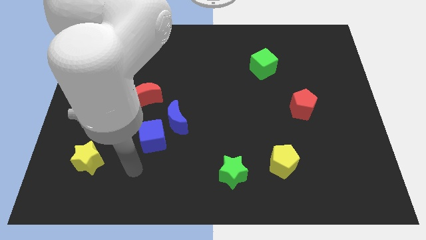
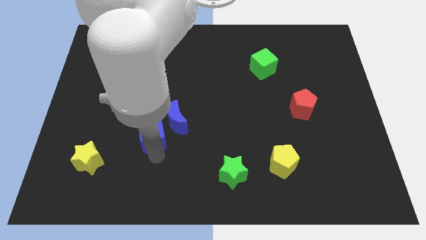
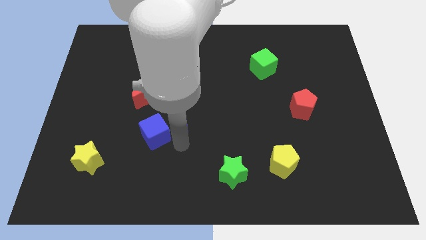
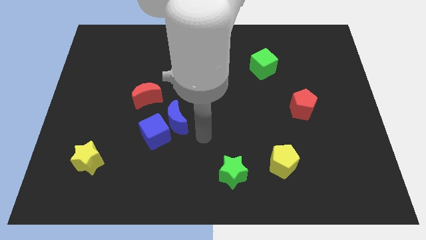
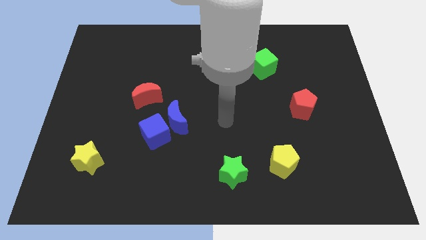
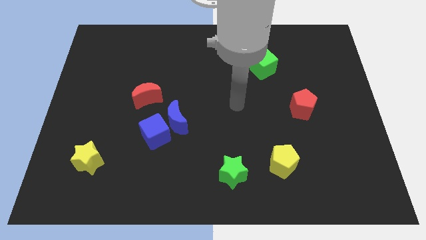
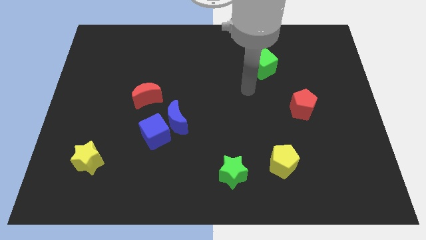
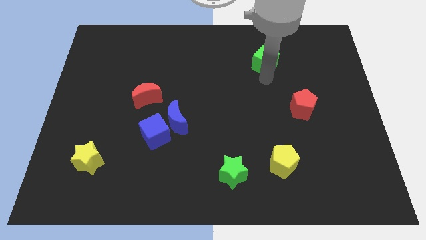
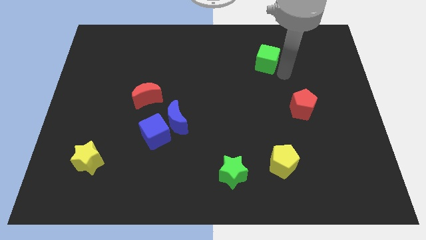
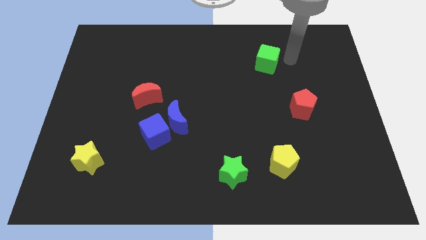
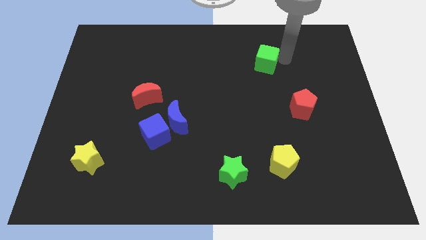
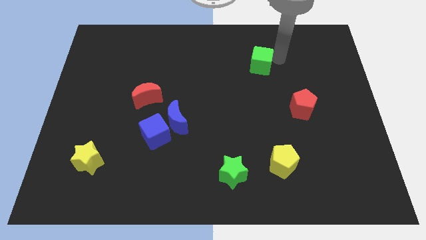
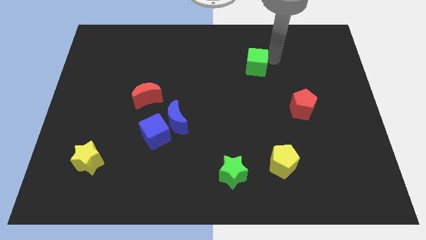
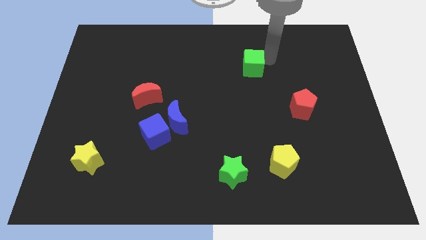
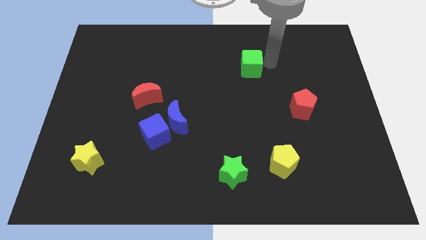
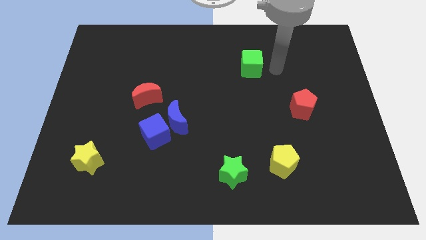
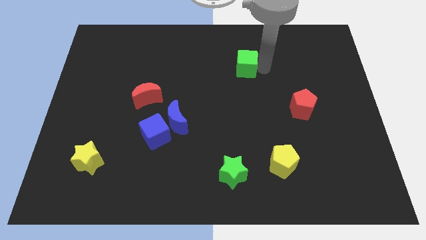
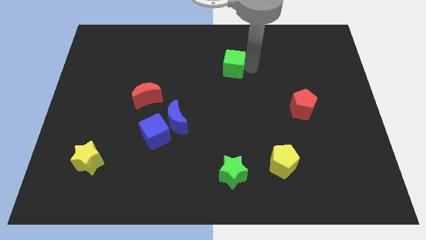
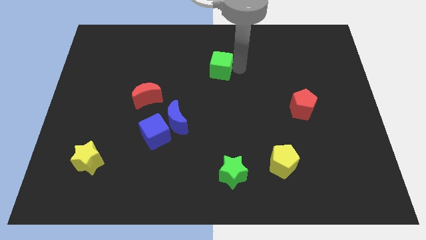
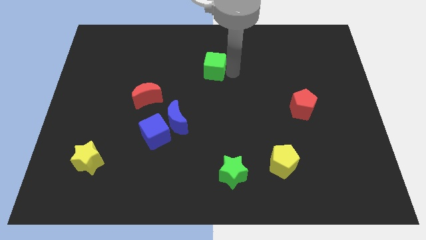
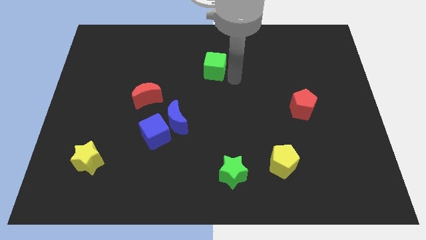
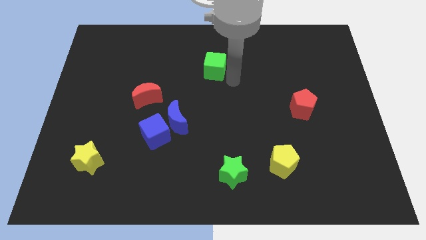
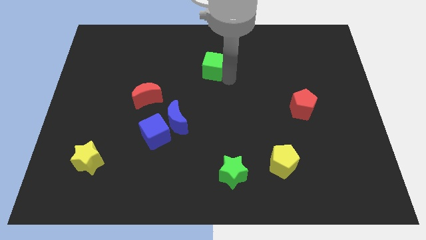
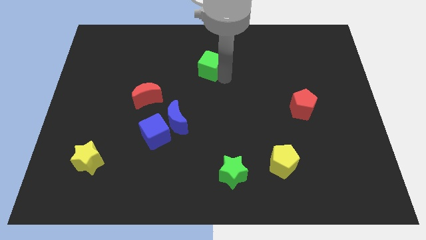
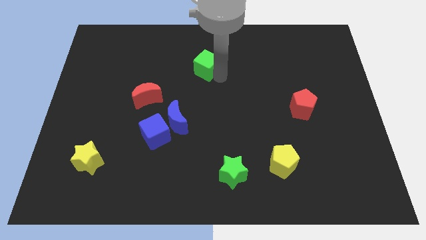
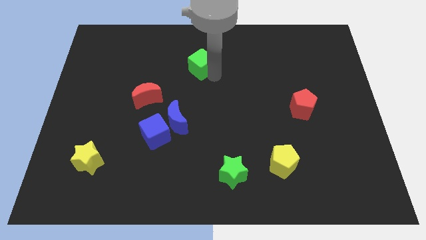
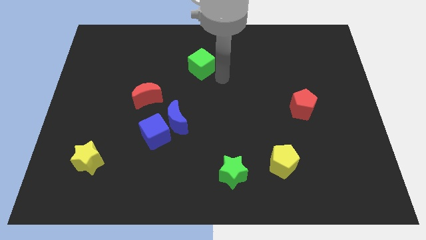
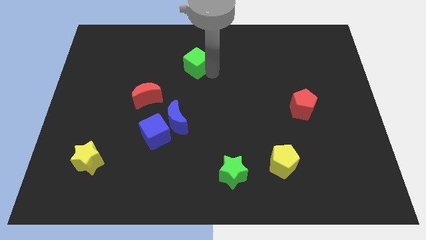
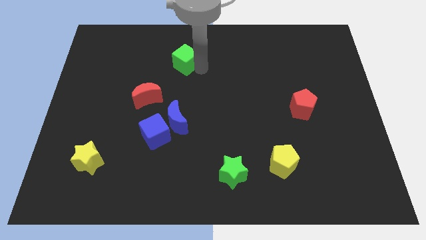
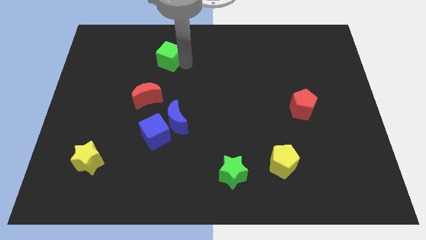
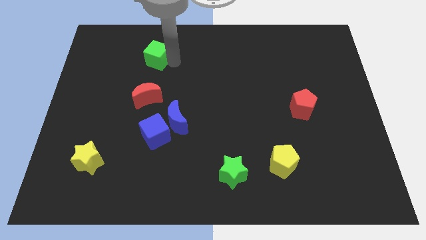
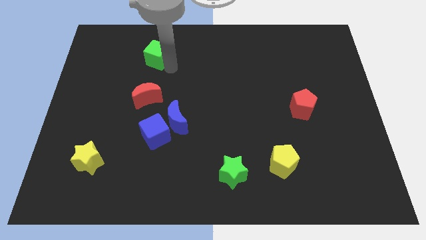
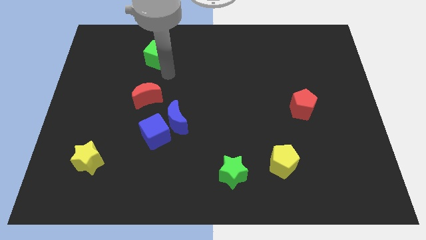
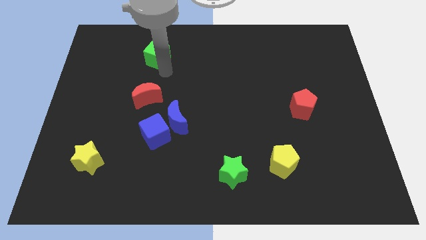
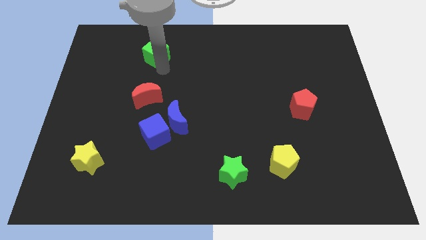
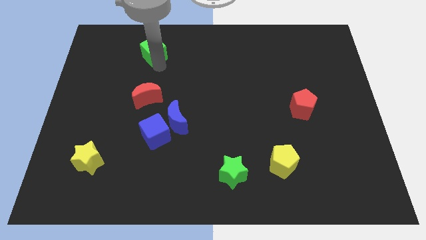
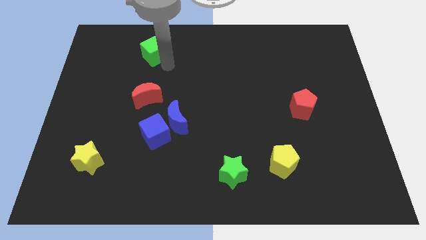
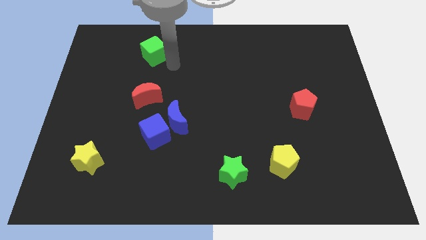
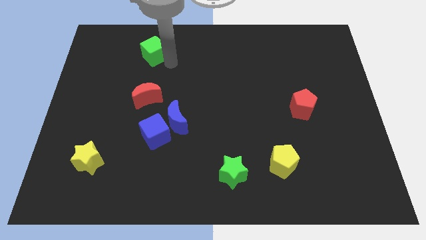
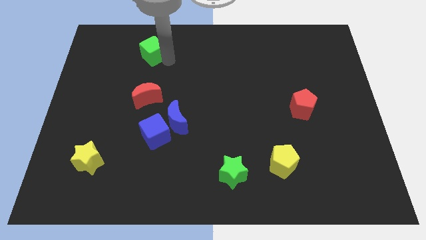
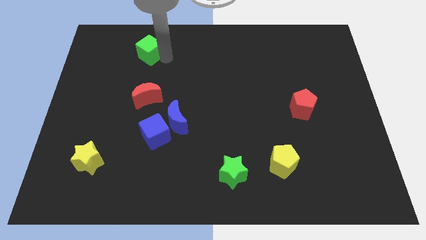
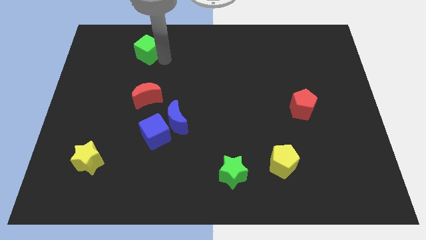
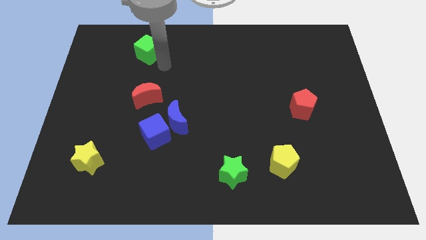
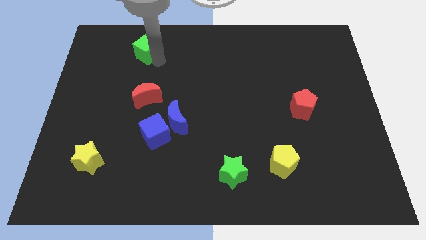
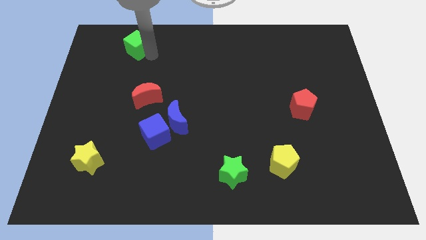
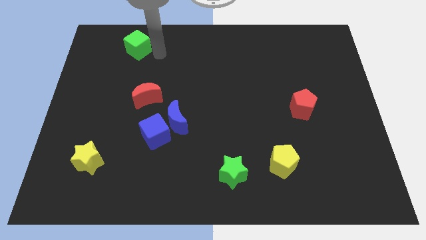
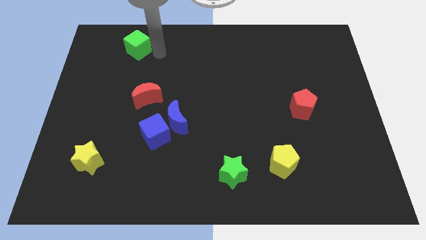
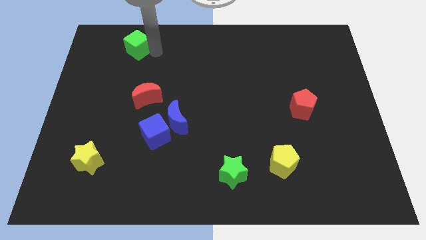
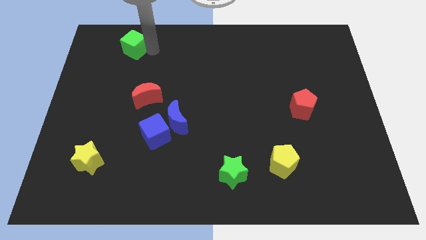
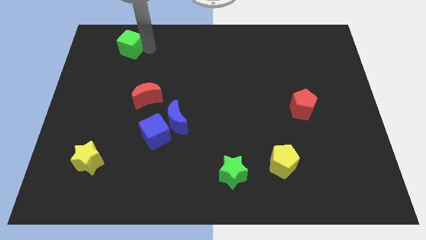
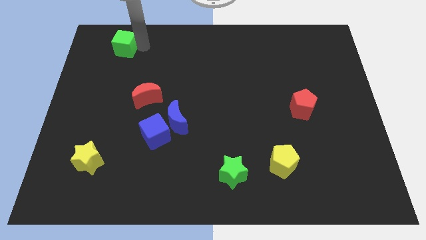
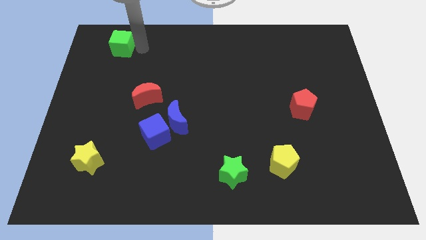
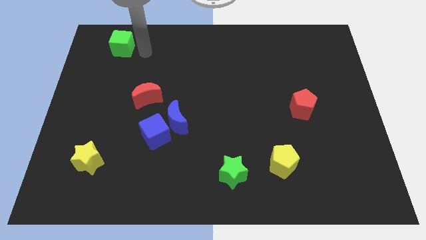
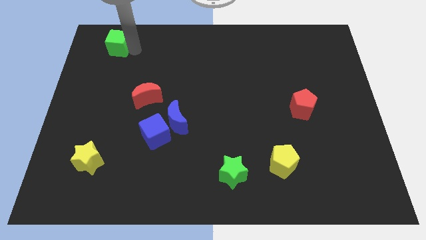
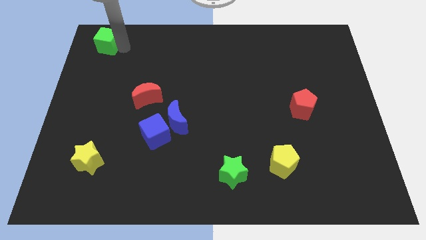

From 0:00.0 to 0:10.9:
put the green cube to the top left of the board

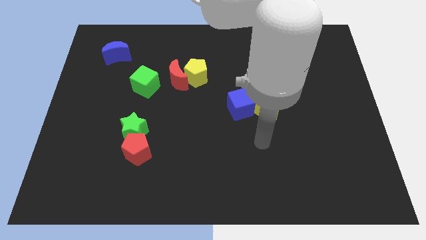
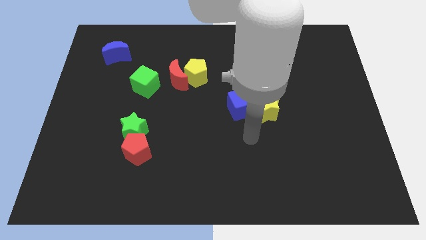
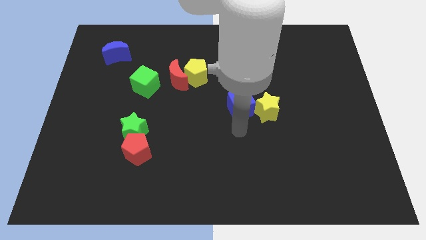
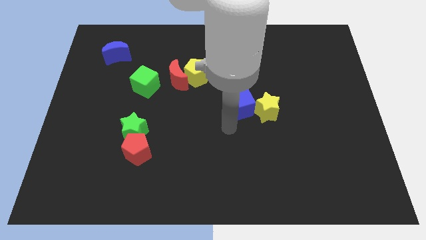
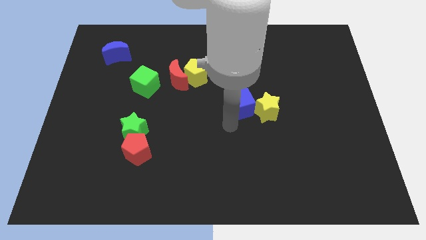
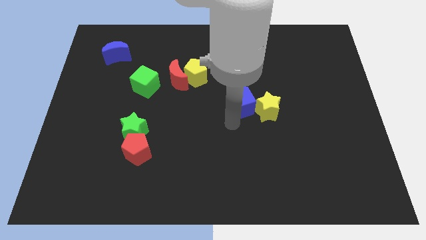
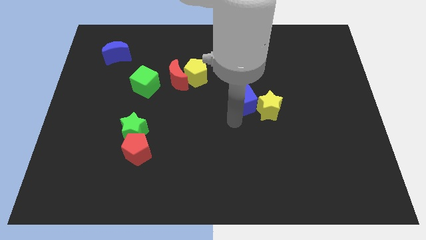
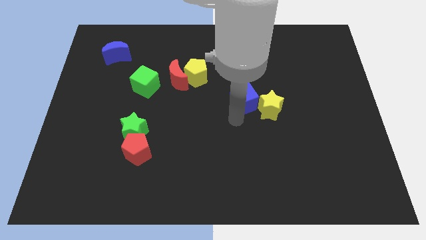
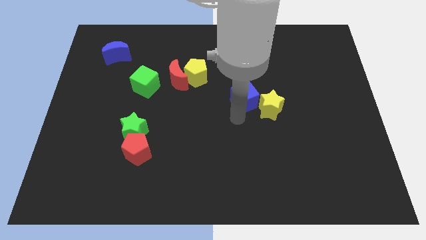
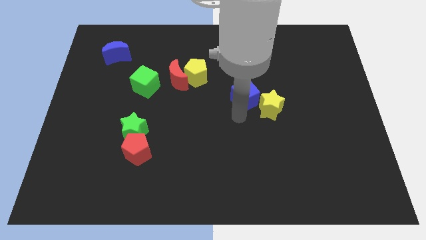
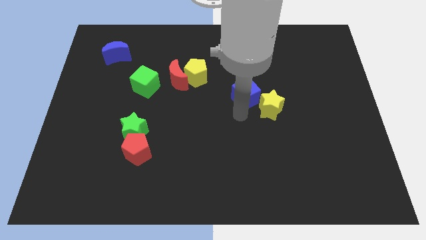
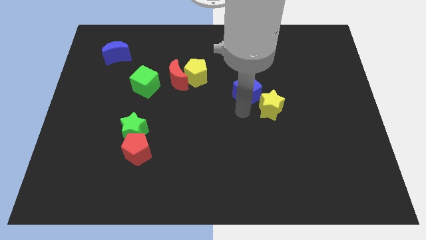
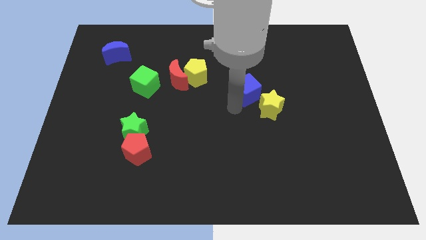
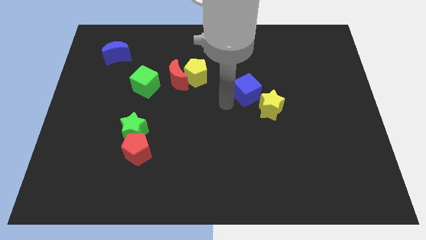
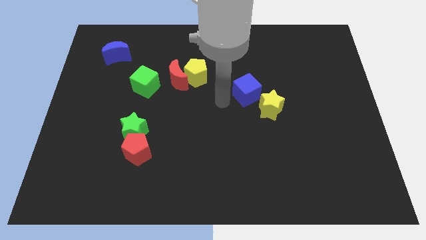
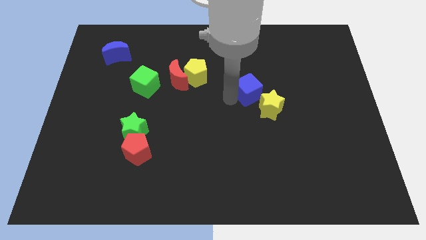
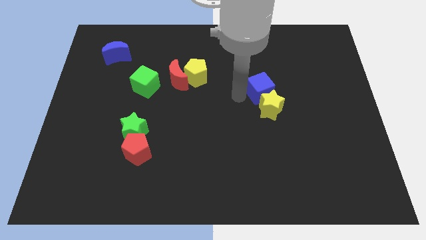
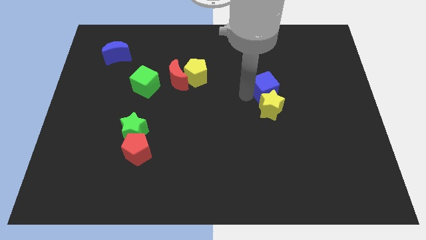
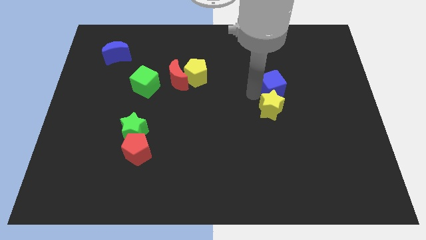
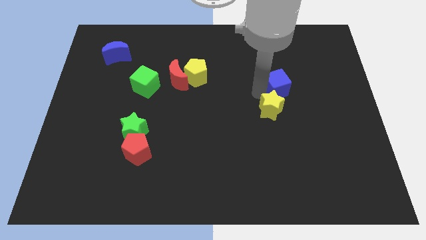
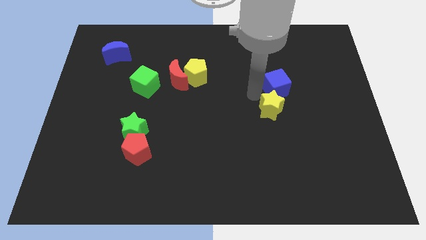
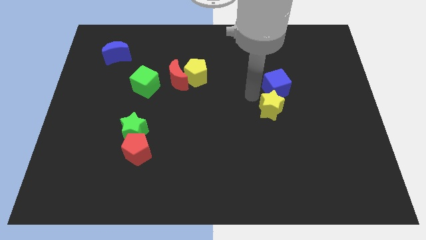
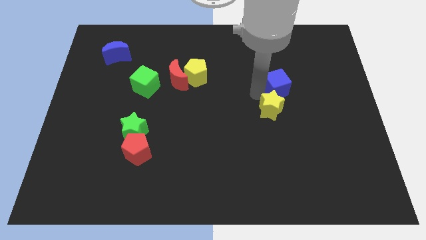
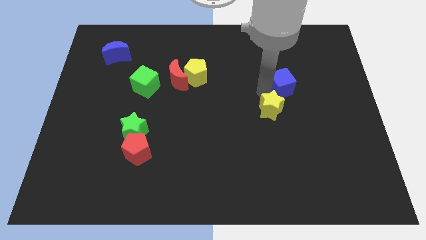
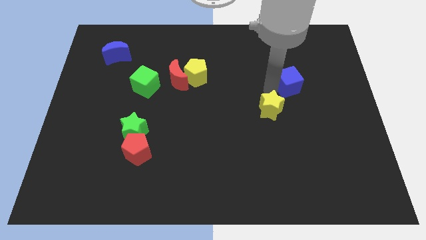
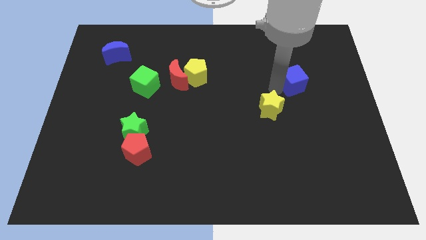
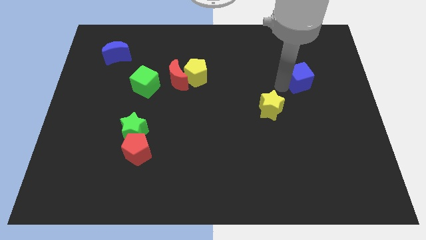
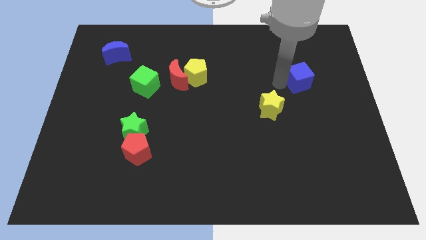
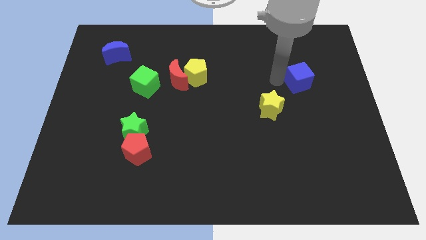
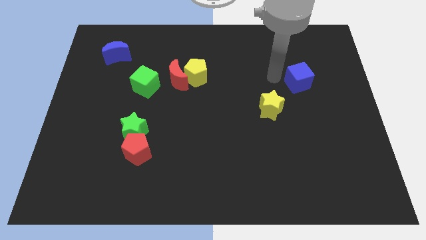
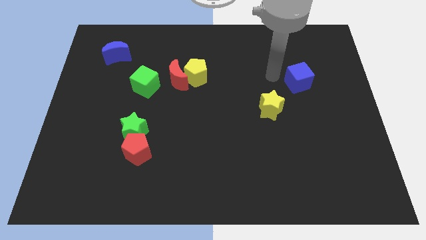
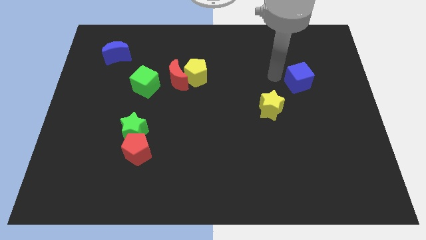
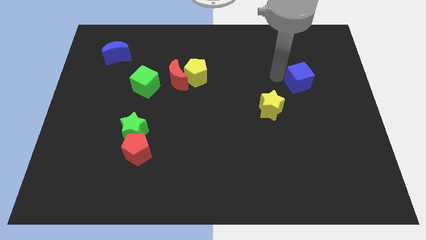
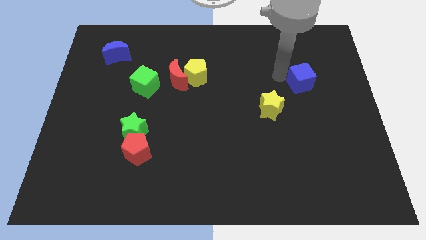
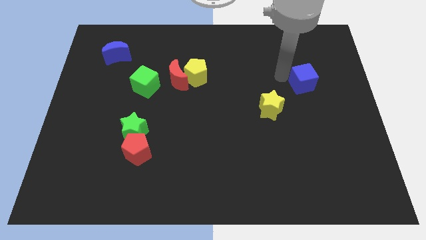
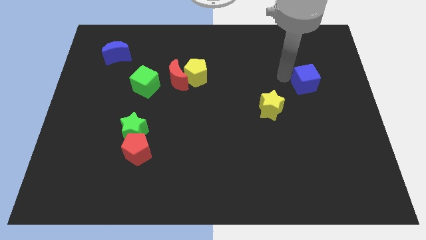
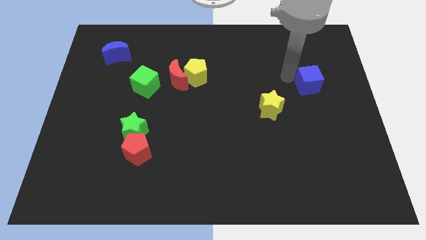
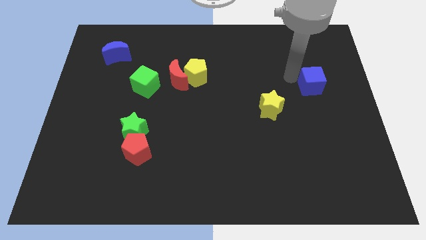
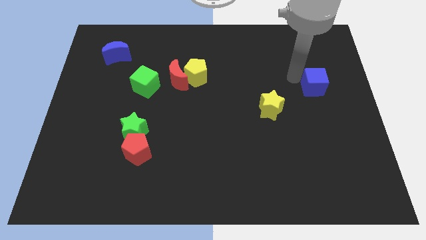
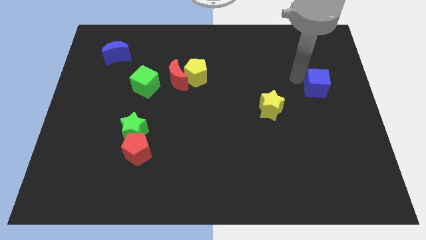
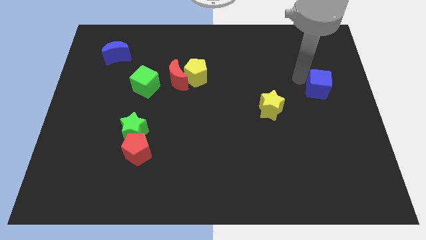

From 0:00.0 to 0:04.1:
put the blue cube to the right side of the board
